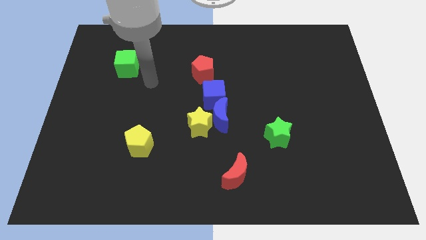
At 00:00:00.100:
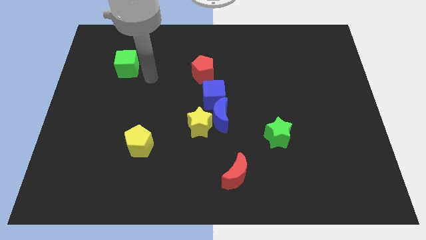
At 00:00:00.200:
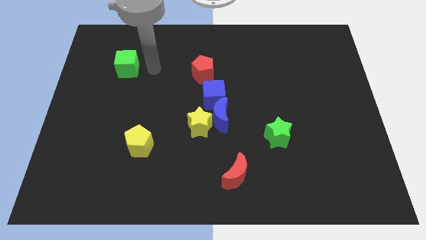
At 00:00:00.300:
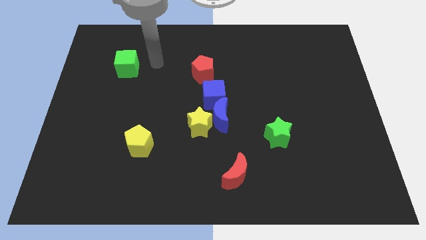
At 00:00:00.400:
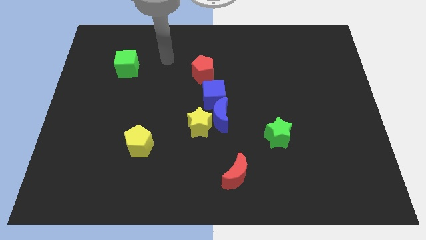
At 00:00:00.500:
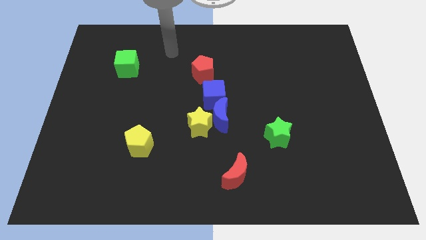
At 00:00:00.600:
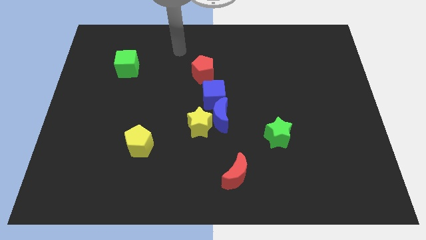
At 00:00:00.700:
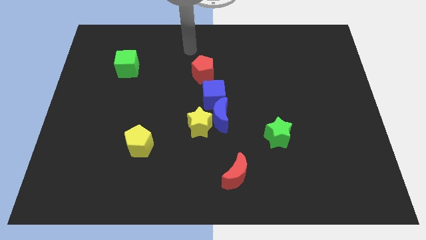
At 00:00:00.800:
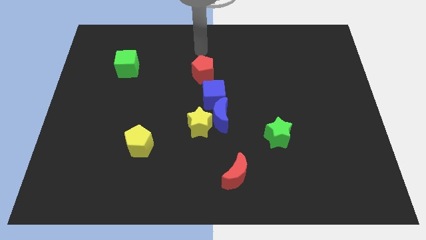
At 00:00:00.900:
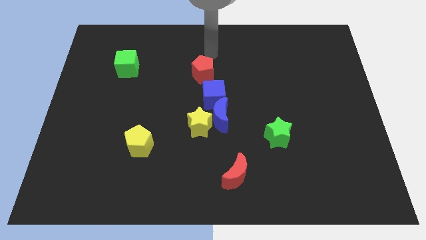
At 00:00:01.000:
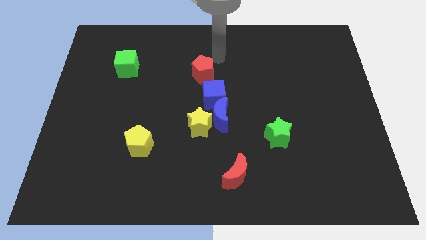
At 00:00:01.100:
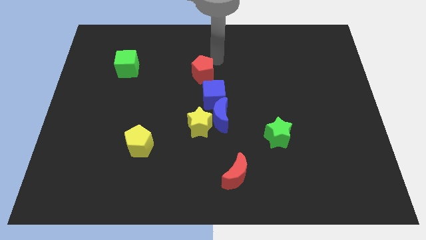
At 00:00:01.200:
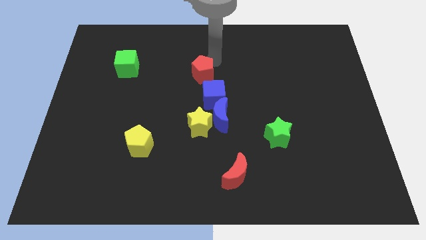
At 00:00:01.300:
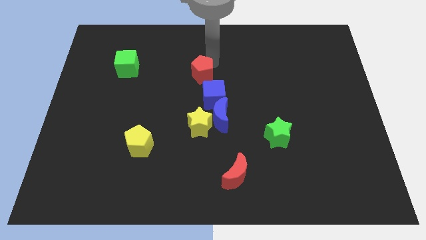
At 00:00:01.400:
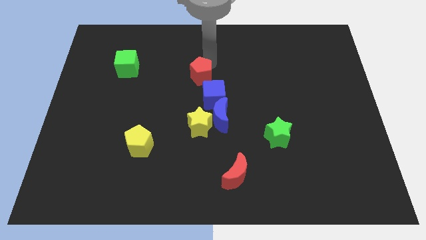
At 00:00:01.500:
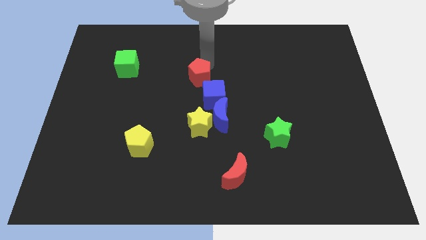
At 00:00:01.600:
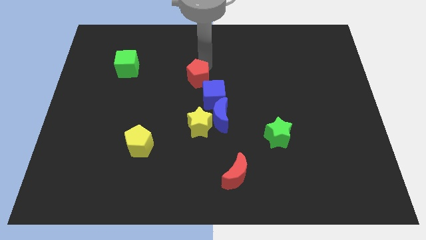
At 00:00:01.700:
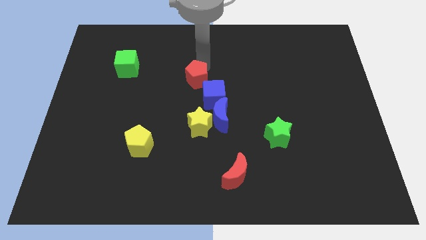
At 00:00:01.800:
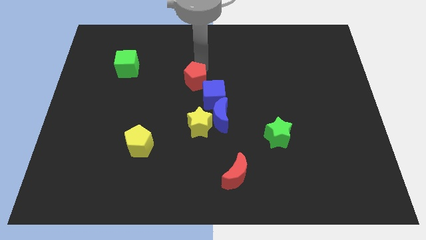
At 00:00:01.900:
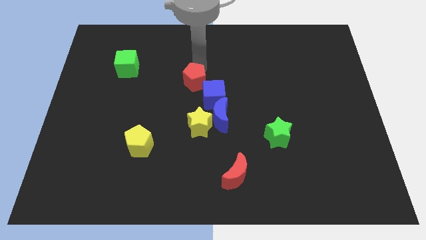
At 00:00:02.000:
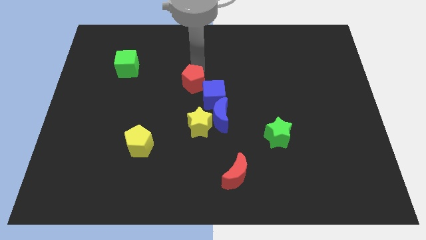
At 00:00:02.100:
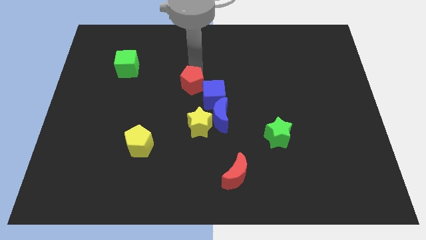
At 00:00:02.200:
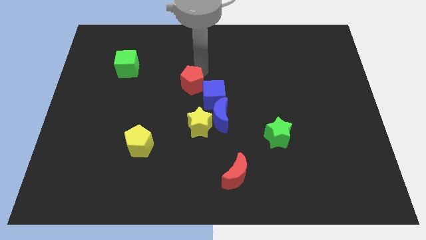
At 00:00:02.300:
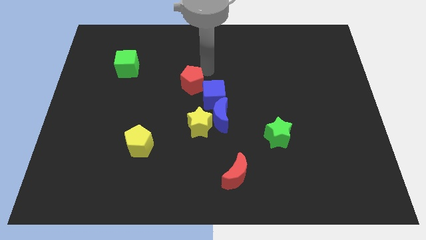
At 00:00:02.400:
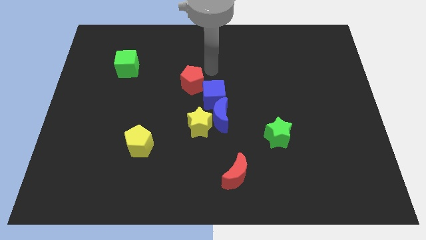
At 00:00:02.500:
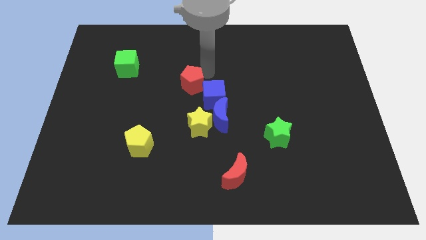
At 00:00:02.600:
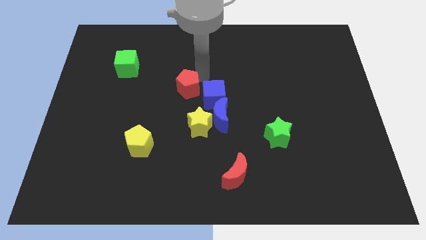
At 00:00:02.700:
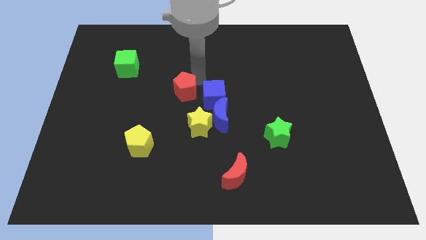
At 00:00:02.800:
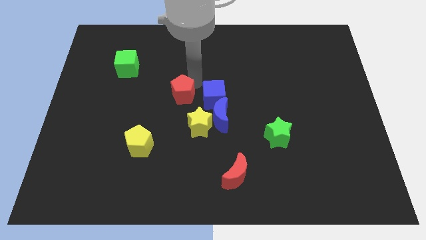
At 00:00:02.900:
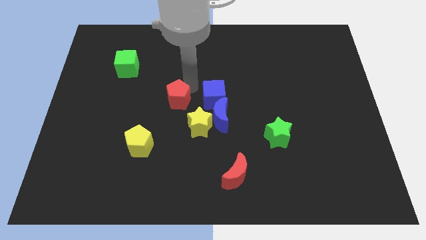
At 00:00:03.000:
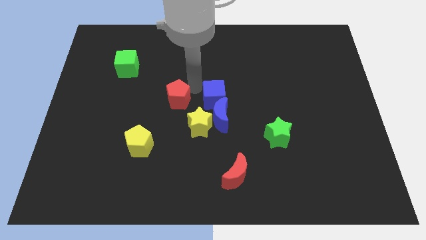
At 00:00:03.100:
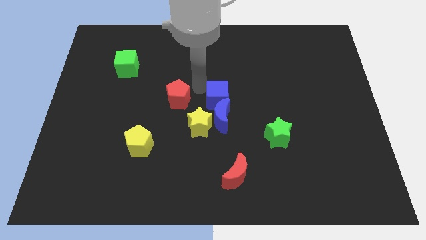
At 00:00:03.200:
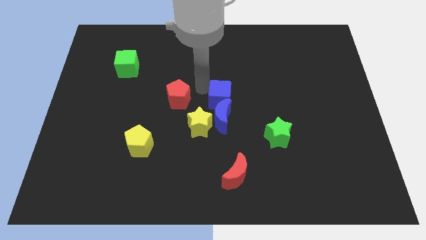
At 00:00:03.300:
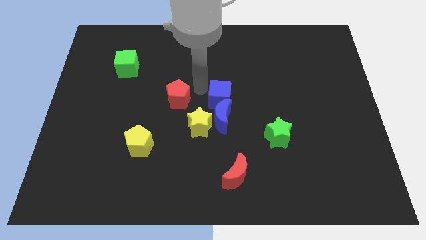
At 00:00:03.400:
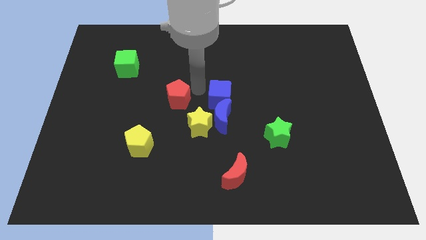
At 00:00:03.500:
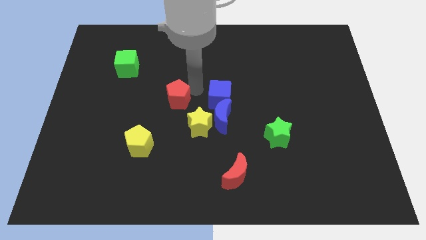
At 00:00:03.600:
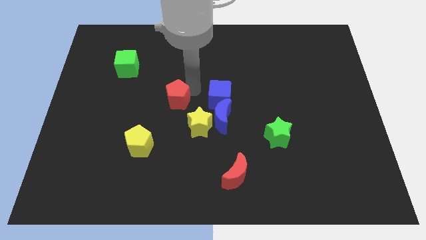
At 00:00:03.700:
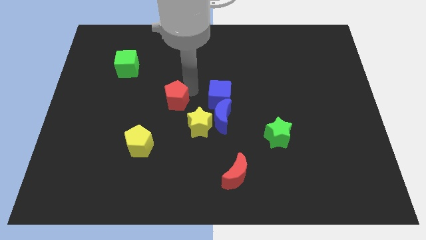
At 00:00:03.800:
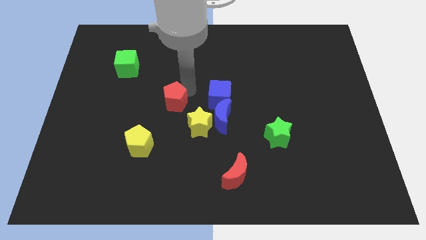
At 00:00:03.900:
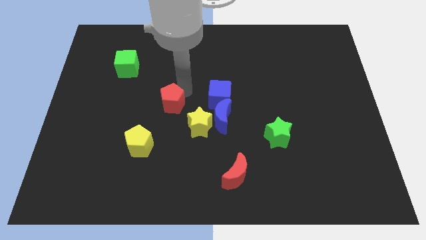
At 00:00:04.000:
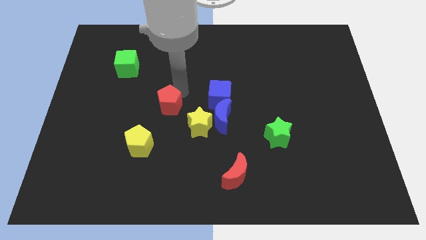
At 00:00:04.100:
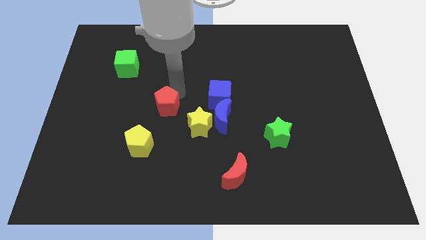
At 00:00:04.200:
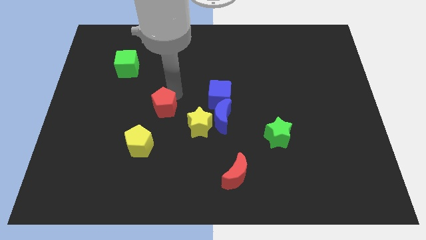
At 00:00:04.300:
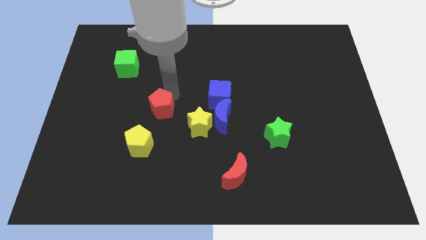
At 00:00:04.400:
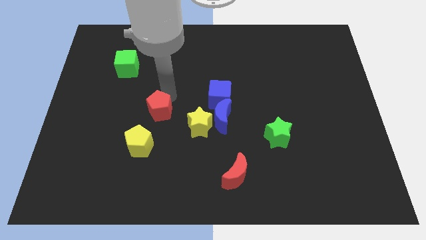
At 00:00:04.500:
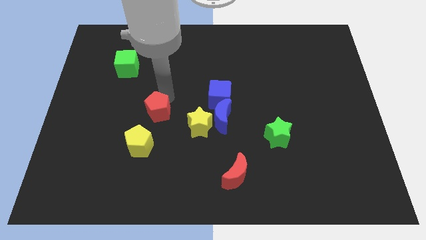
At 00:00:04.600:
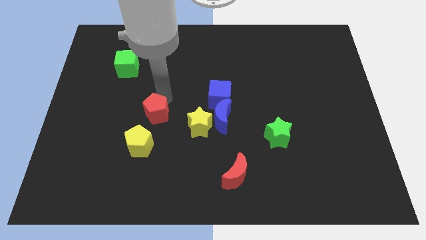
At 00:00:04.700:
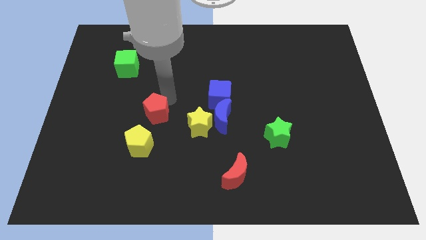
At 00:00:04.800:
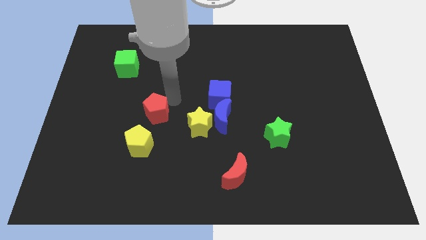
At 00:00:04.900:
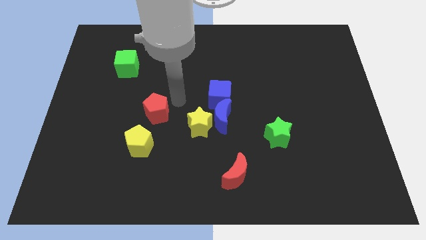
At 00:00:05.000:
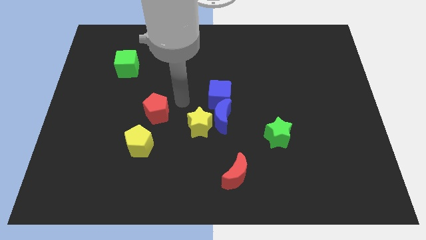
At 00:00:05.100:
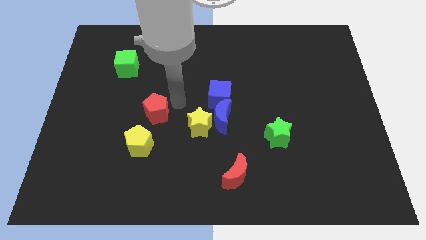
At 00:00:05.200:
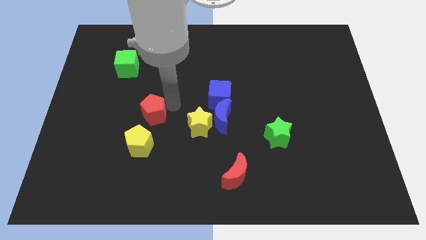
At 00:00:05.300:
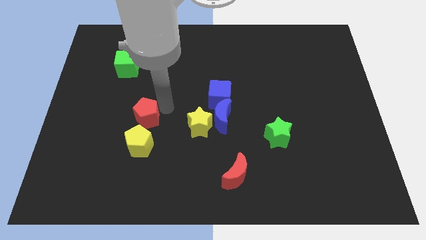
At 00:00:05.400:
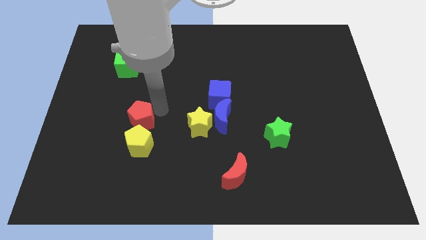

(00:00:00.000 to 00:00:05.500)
slide the red pentagon downwards and to the left

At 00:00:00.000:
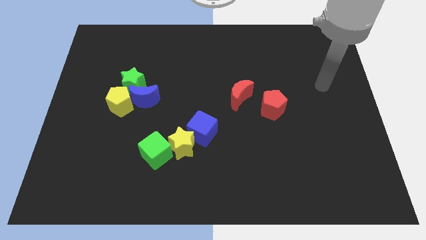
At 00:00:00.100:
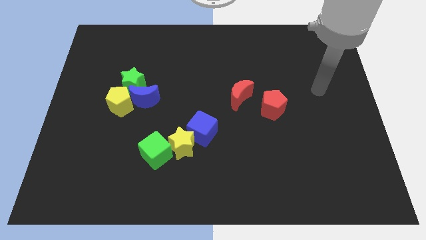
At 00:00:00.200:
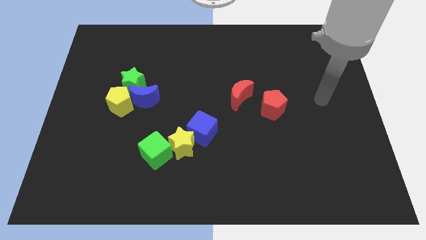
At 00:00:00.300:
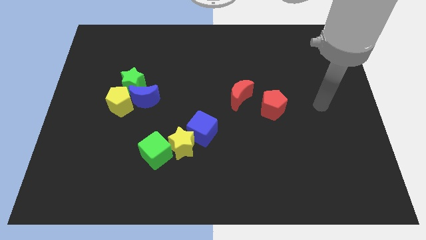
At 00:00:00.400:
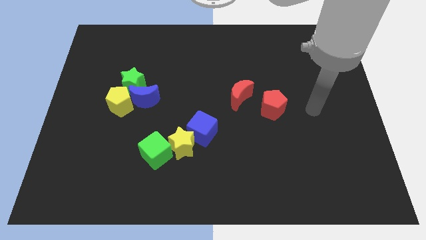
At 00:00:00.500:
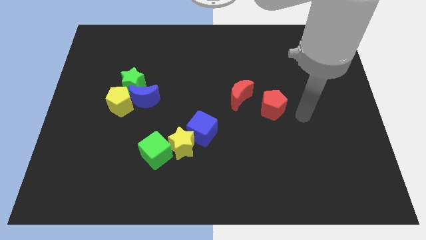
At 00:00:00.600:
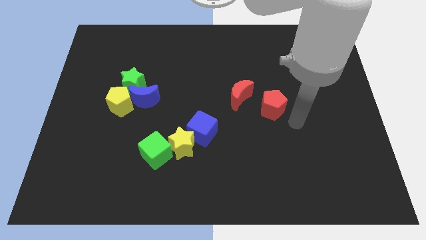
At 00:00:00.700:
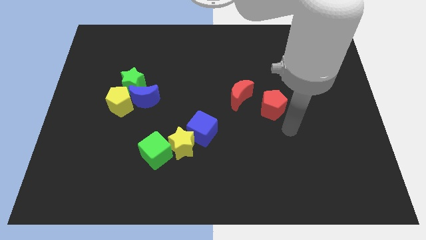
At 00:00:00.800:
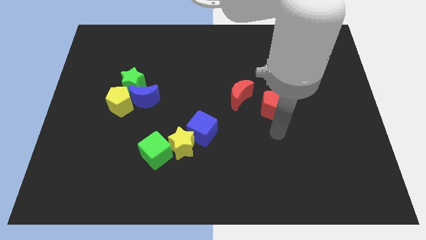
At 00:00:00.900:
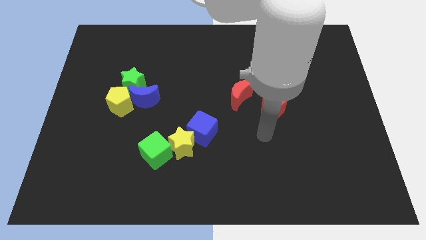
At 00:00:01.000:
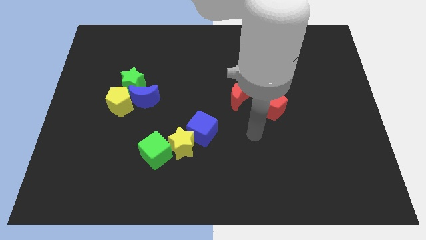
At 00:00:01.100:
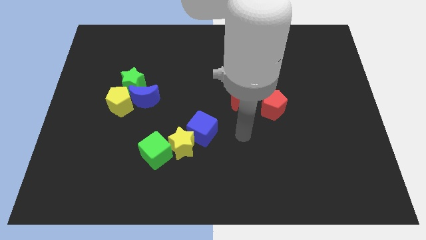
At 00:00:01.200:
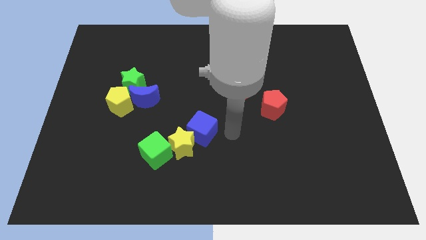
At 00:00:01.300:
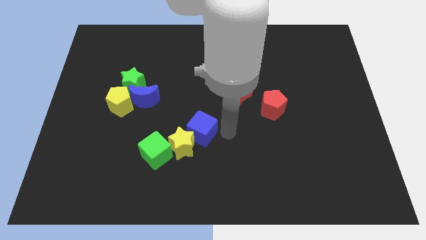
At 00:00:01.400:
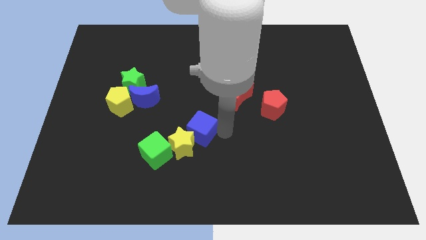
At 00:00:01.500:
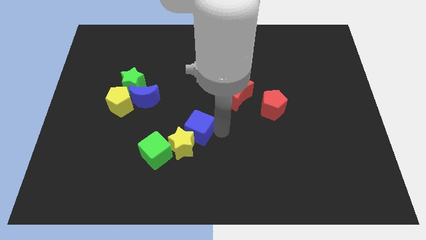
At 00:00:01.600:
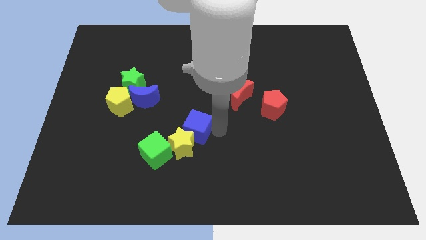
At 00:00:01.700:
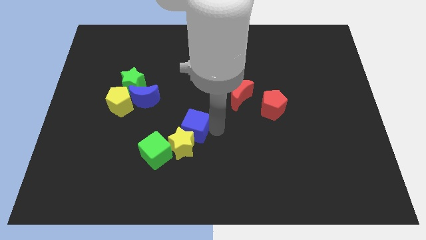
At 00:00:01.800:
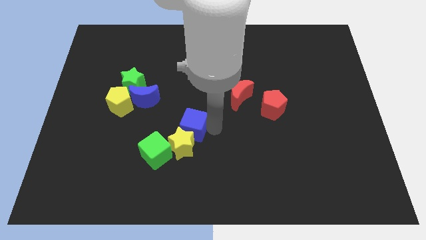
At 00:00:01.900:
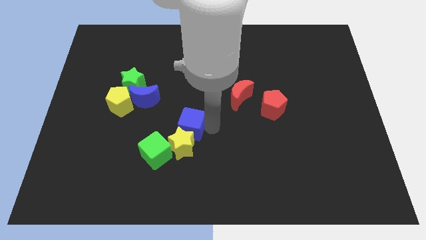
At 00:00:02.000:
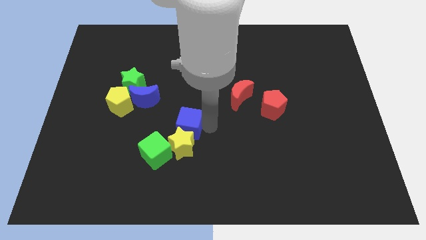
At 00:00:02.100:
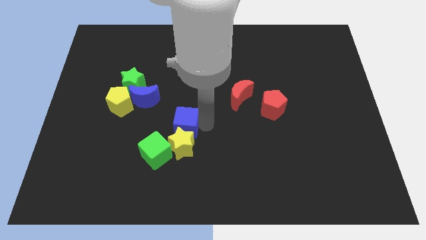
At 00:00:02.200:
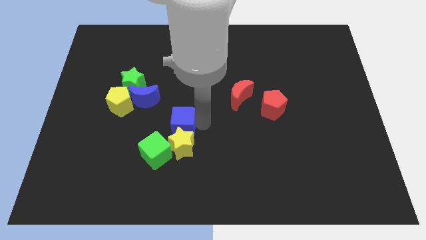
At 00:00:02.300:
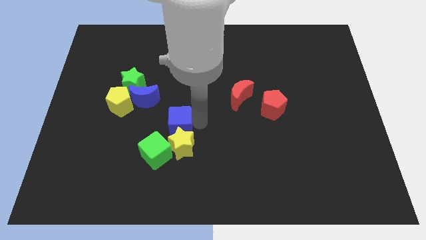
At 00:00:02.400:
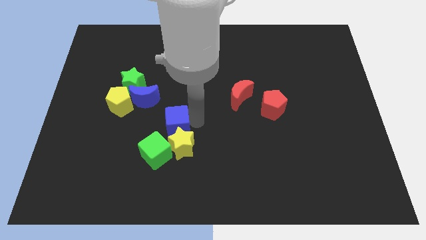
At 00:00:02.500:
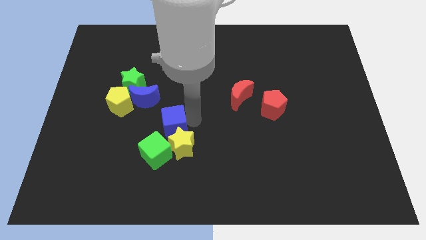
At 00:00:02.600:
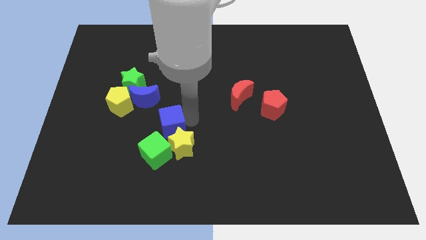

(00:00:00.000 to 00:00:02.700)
move the blue cube to the left slightly
